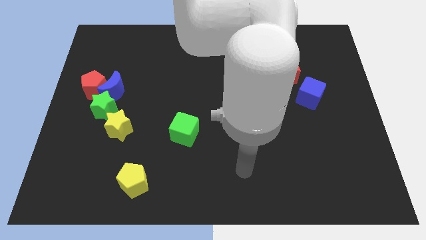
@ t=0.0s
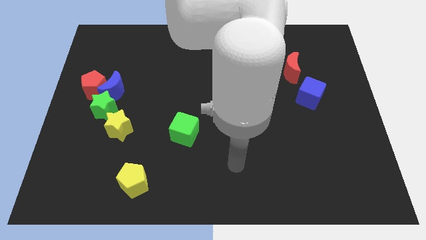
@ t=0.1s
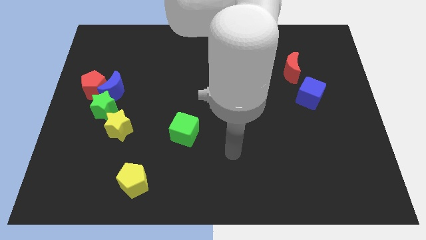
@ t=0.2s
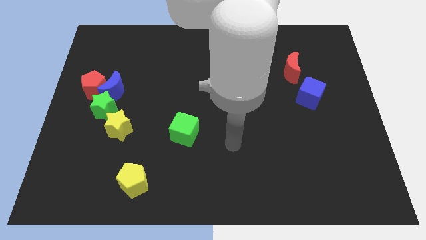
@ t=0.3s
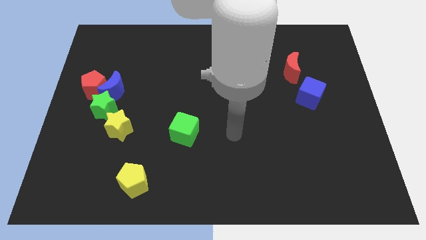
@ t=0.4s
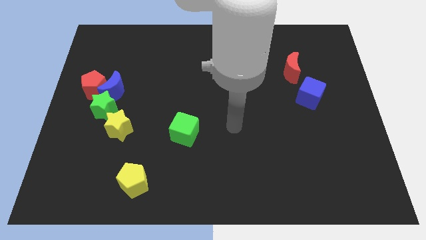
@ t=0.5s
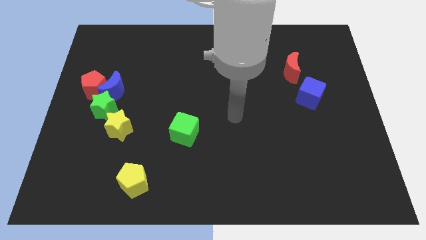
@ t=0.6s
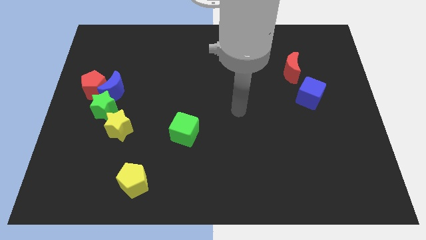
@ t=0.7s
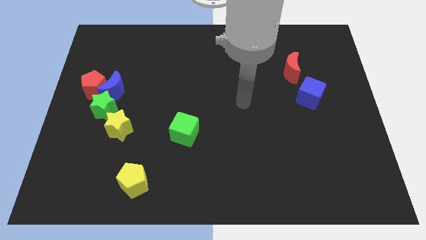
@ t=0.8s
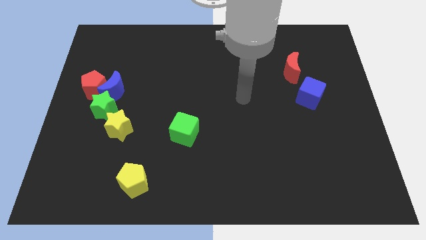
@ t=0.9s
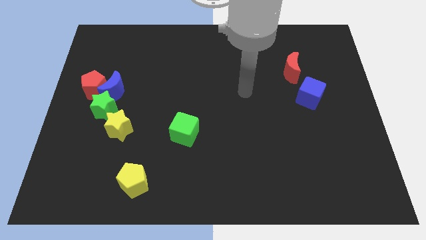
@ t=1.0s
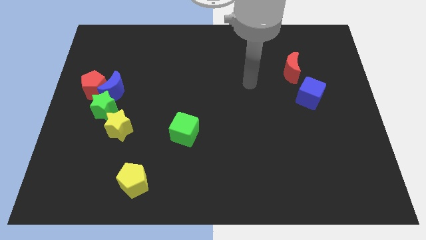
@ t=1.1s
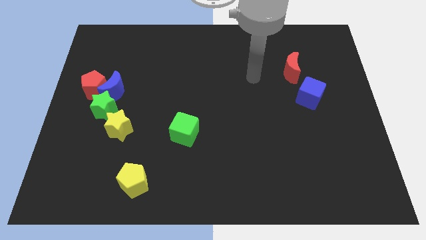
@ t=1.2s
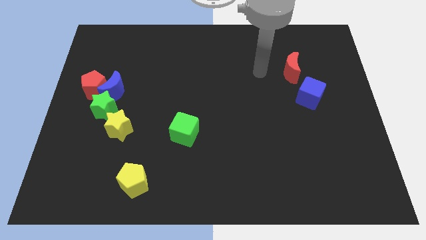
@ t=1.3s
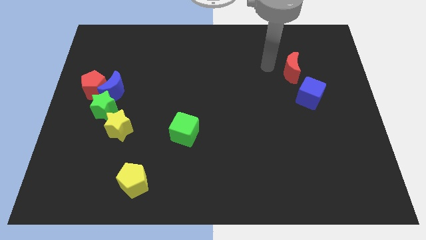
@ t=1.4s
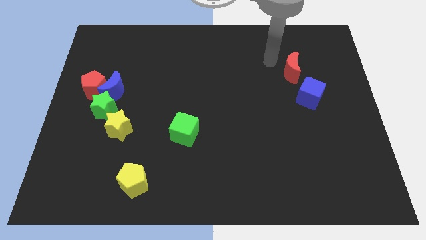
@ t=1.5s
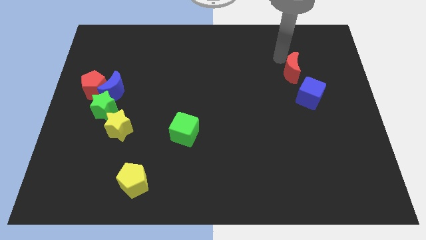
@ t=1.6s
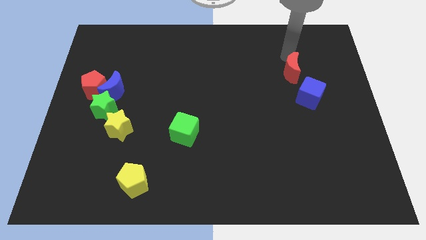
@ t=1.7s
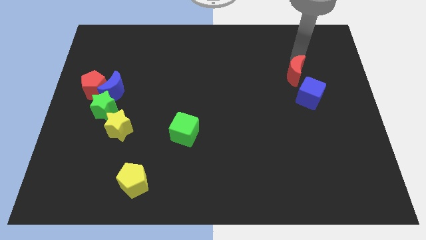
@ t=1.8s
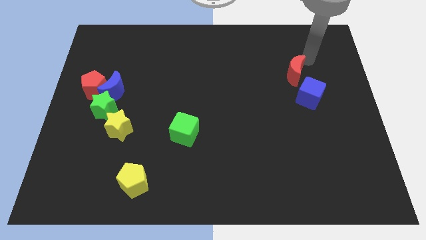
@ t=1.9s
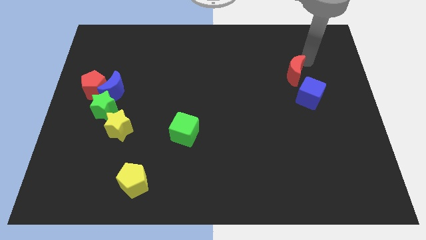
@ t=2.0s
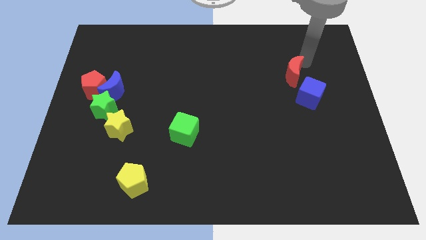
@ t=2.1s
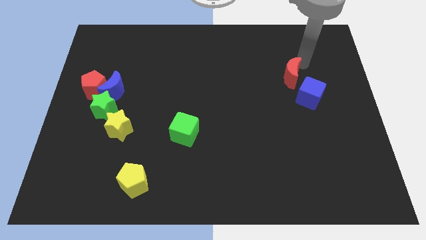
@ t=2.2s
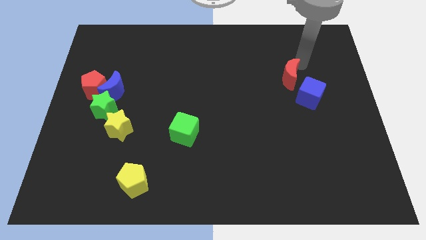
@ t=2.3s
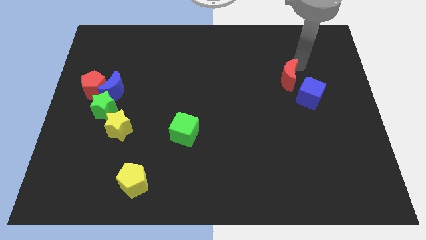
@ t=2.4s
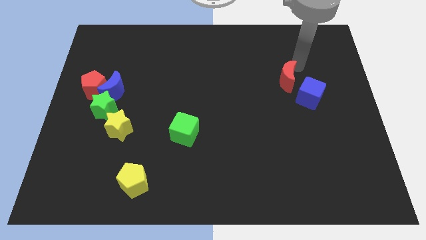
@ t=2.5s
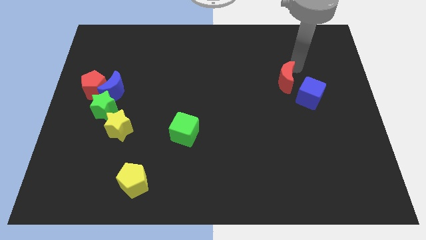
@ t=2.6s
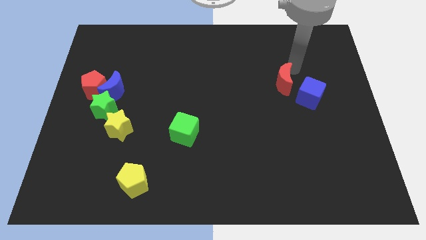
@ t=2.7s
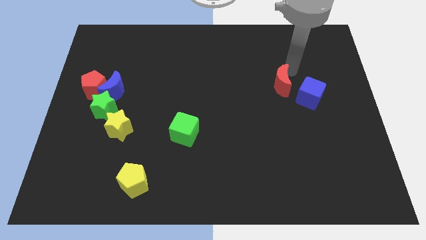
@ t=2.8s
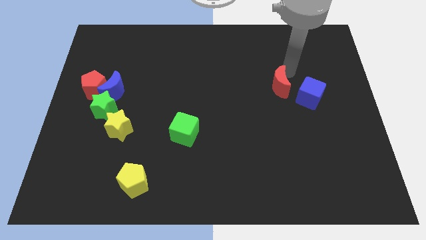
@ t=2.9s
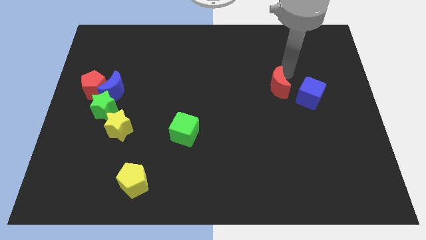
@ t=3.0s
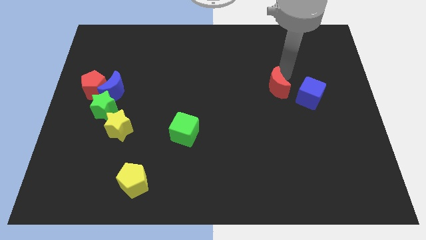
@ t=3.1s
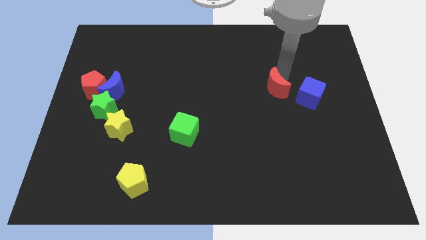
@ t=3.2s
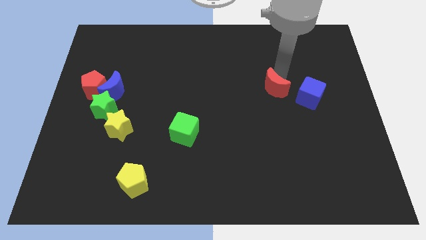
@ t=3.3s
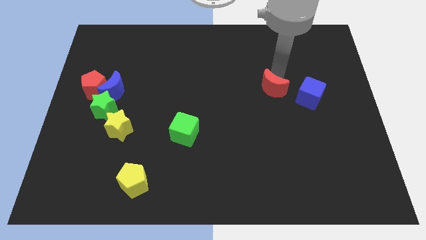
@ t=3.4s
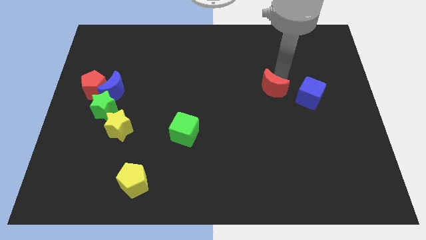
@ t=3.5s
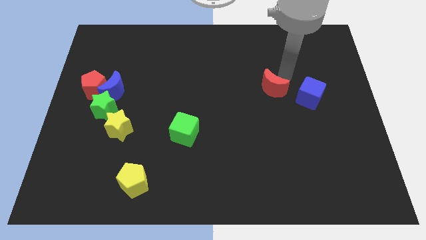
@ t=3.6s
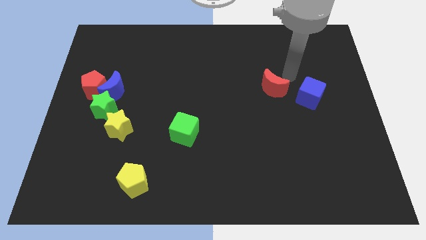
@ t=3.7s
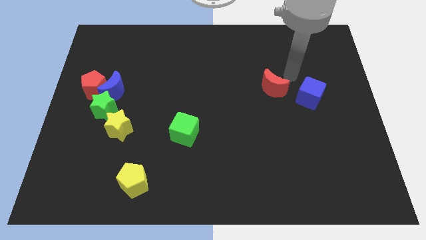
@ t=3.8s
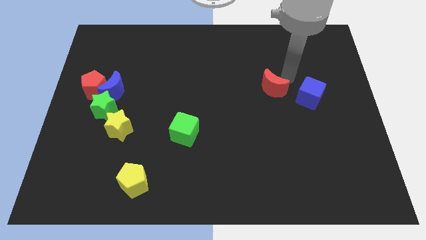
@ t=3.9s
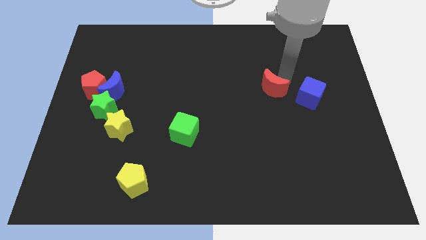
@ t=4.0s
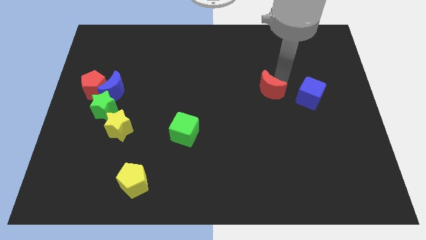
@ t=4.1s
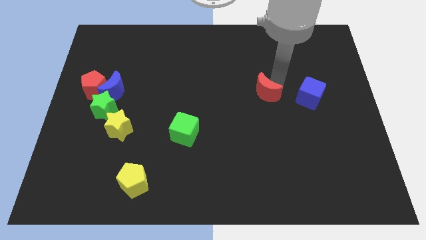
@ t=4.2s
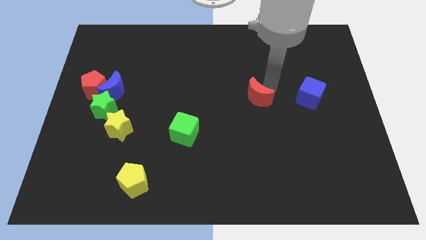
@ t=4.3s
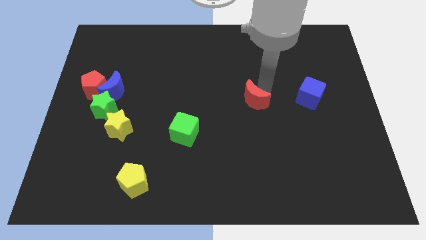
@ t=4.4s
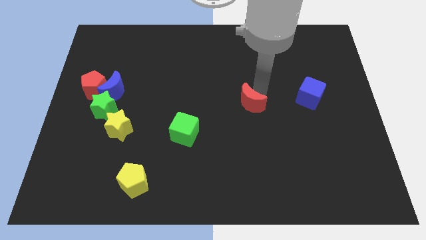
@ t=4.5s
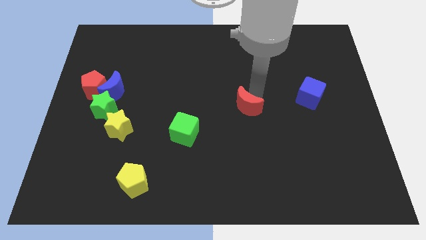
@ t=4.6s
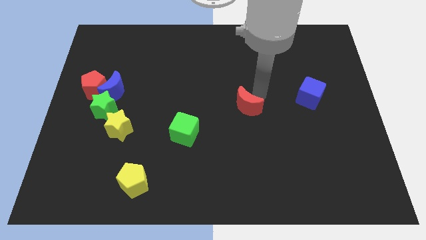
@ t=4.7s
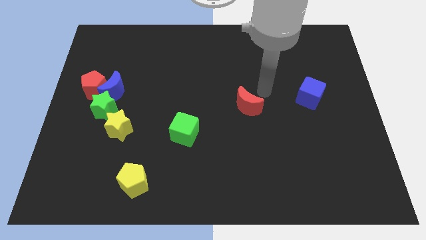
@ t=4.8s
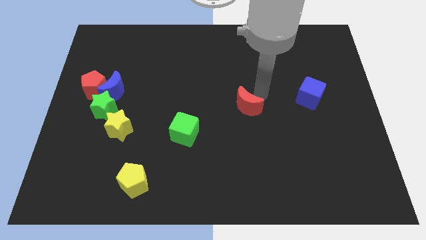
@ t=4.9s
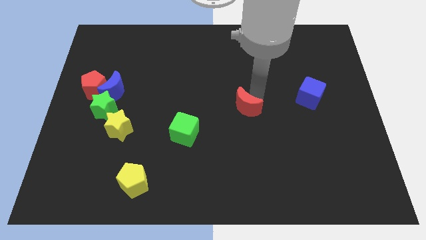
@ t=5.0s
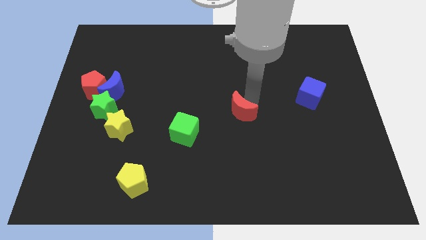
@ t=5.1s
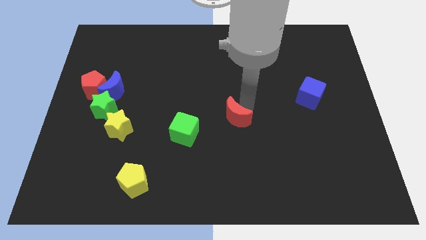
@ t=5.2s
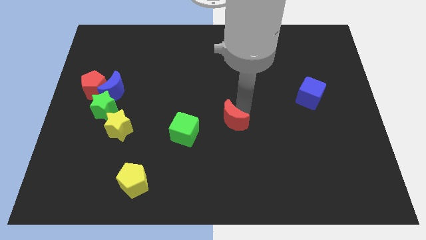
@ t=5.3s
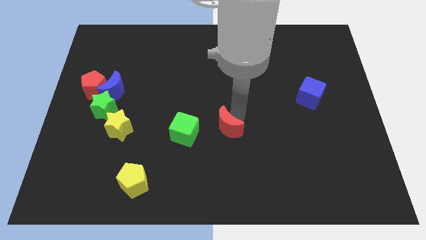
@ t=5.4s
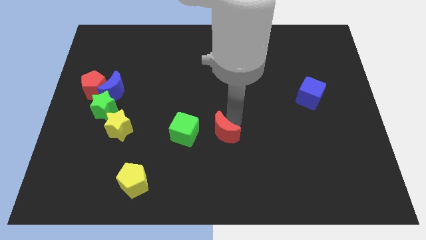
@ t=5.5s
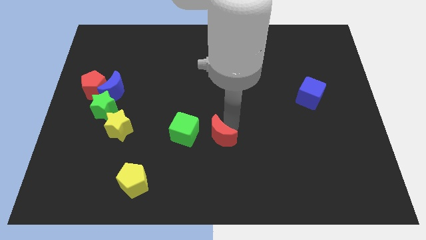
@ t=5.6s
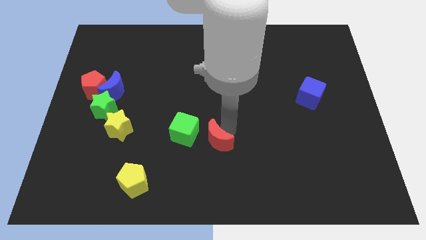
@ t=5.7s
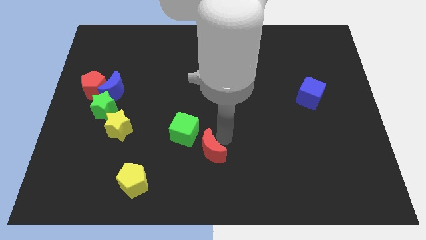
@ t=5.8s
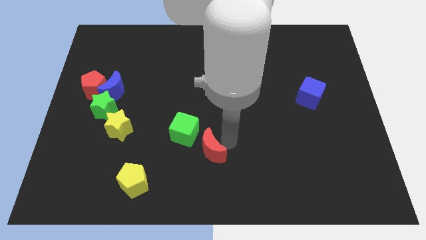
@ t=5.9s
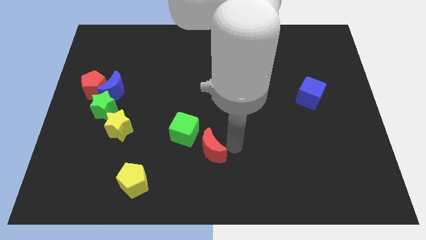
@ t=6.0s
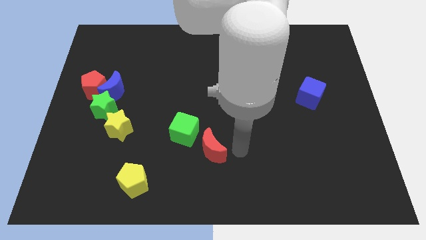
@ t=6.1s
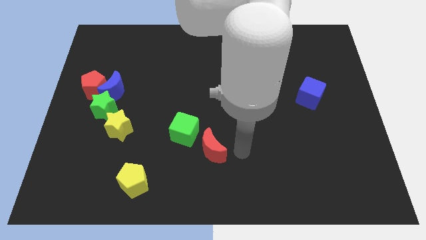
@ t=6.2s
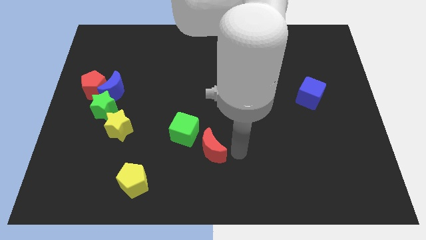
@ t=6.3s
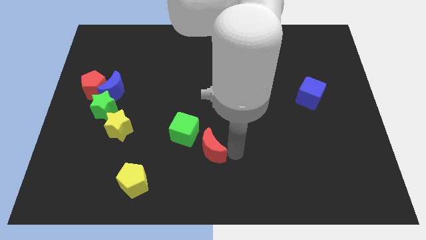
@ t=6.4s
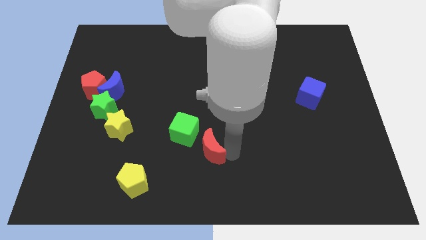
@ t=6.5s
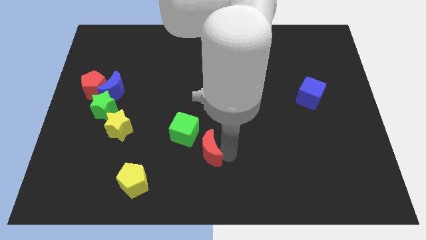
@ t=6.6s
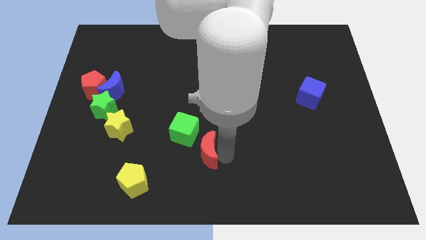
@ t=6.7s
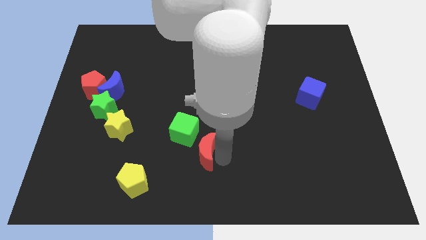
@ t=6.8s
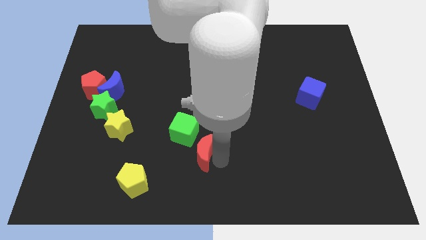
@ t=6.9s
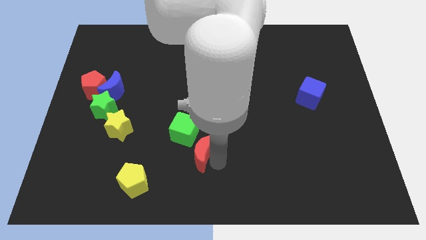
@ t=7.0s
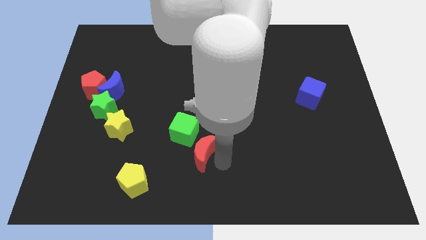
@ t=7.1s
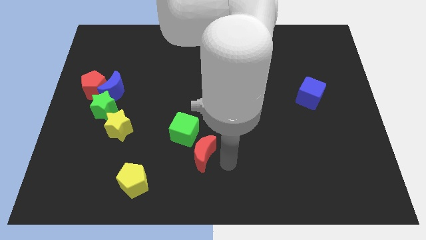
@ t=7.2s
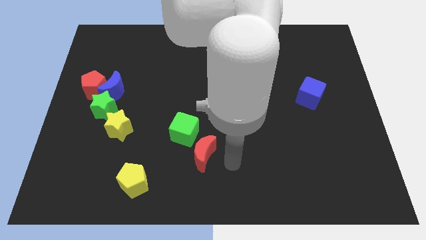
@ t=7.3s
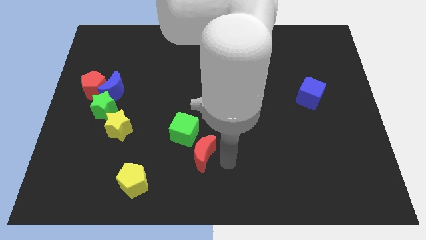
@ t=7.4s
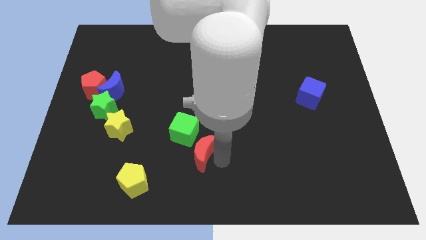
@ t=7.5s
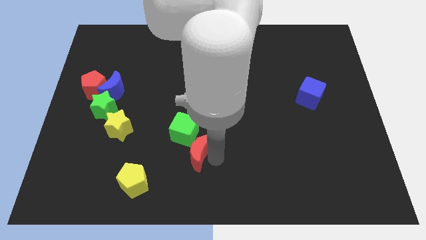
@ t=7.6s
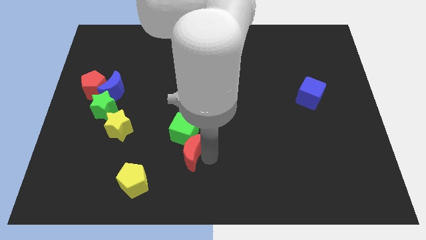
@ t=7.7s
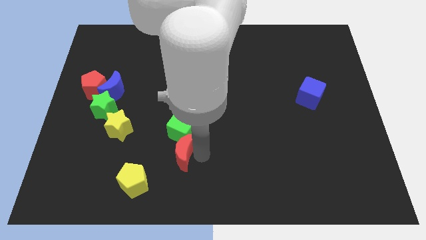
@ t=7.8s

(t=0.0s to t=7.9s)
push the red moon to the bottom left of the green cube
